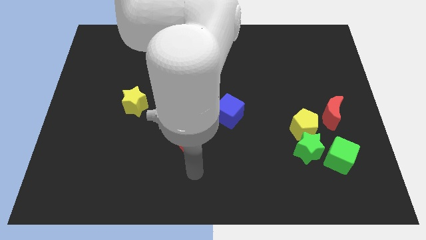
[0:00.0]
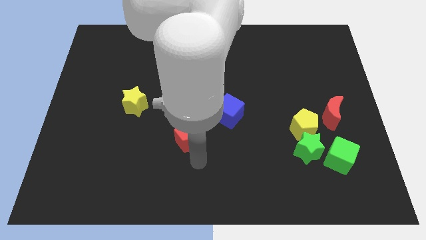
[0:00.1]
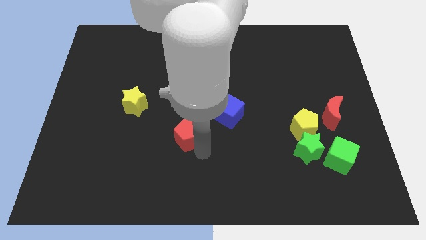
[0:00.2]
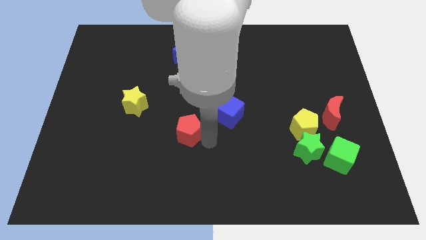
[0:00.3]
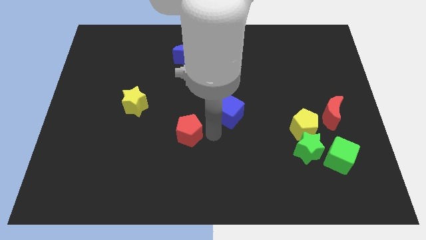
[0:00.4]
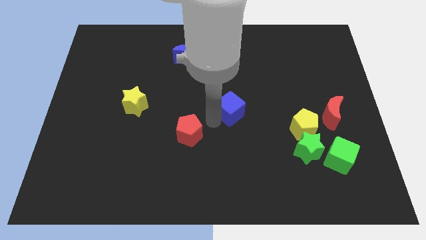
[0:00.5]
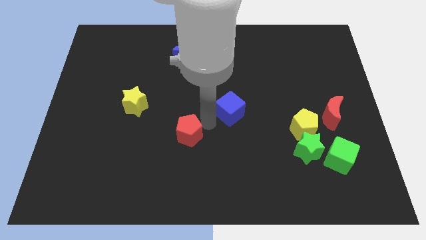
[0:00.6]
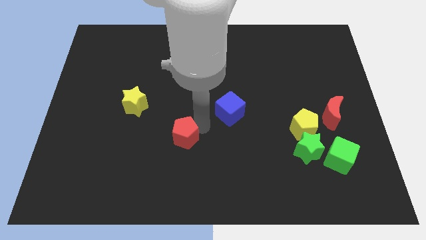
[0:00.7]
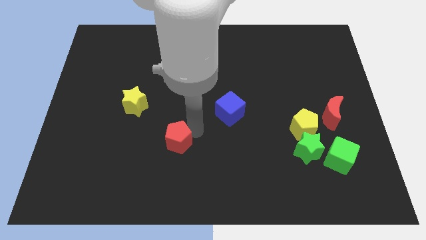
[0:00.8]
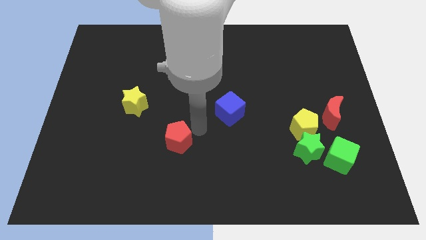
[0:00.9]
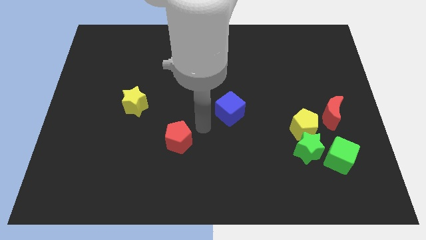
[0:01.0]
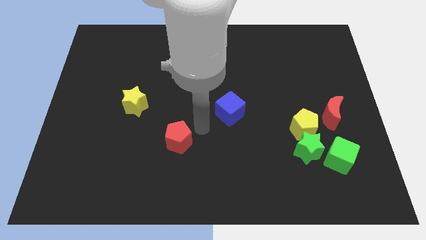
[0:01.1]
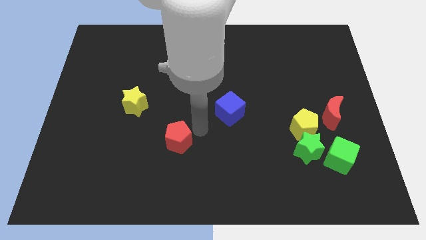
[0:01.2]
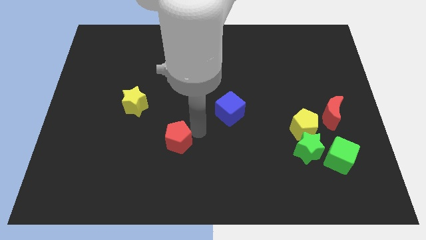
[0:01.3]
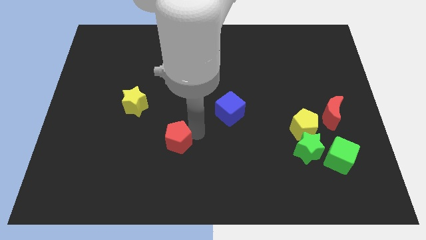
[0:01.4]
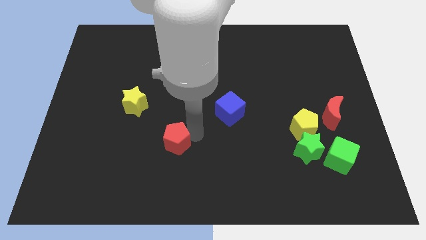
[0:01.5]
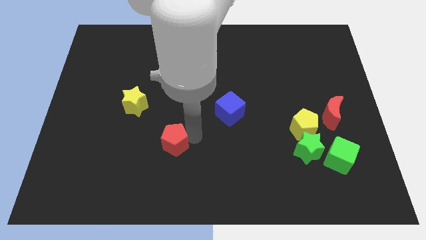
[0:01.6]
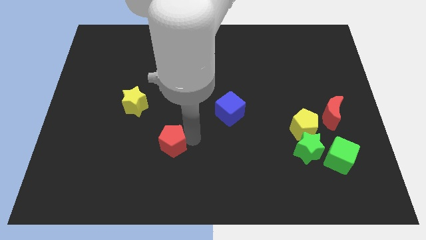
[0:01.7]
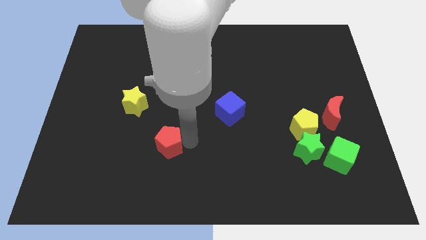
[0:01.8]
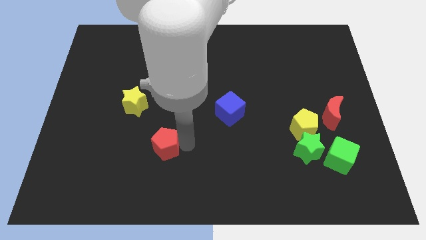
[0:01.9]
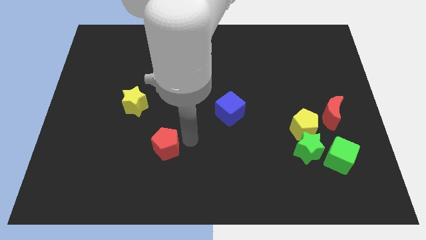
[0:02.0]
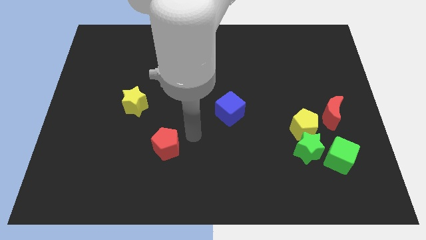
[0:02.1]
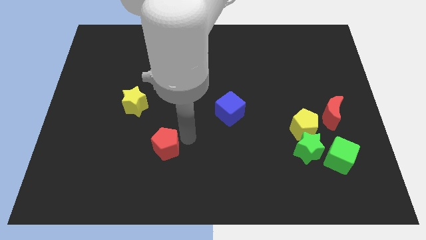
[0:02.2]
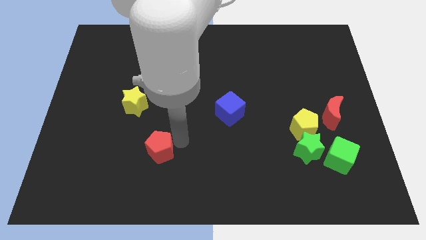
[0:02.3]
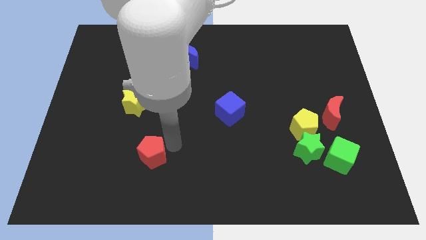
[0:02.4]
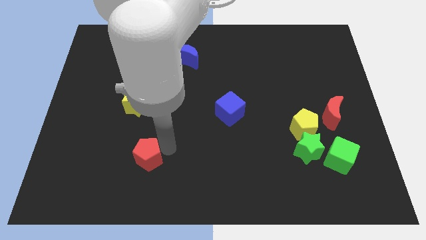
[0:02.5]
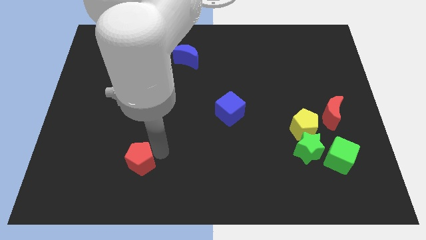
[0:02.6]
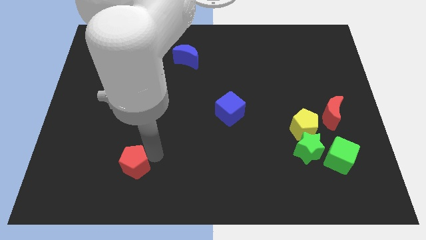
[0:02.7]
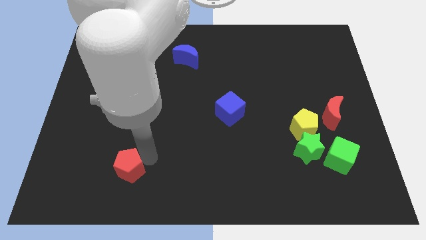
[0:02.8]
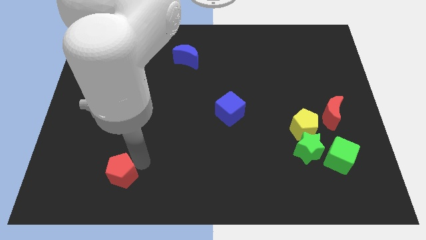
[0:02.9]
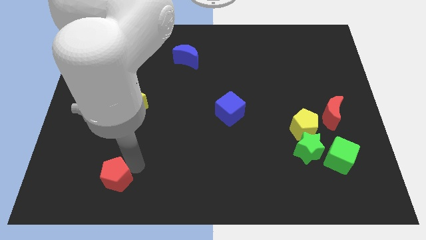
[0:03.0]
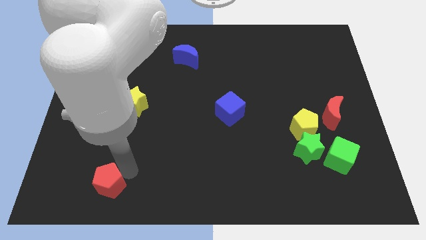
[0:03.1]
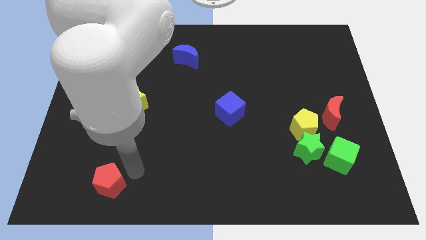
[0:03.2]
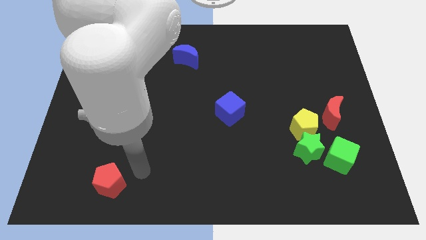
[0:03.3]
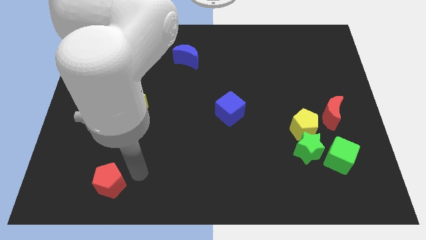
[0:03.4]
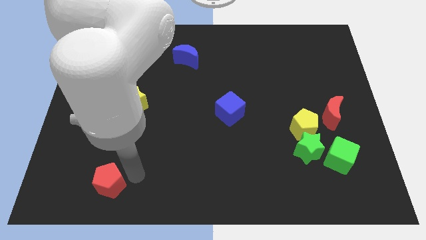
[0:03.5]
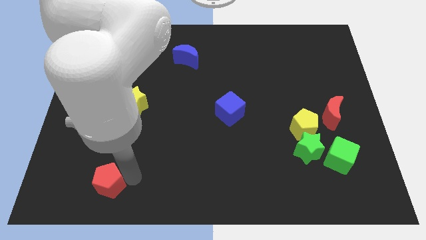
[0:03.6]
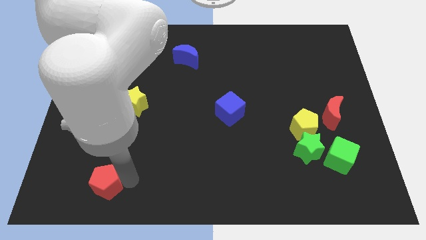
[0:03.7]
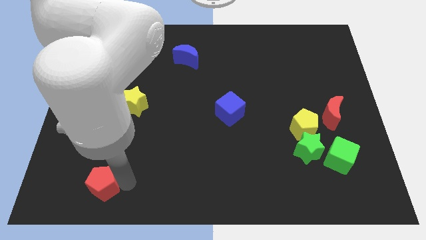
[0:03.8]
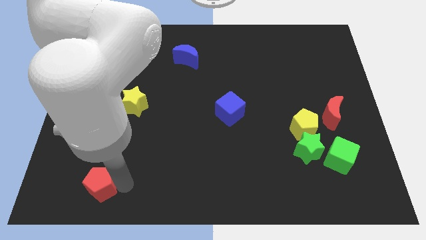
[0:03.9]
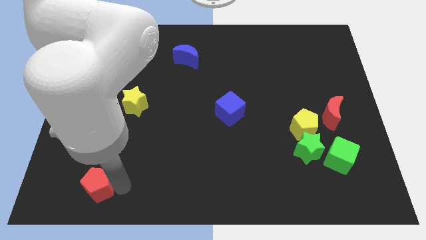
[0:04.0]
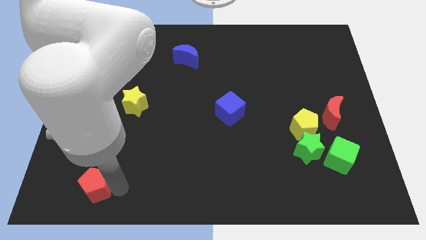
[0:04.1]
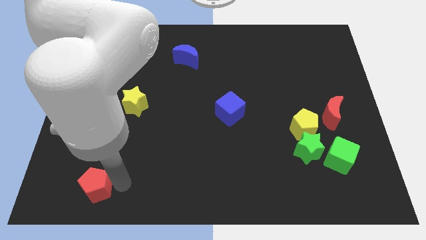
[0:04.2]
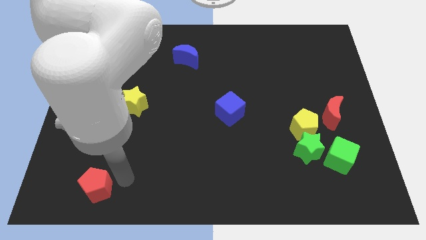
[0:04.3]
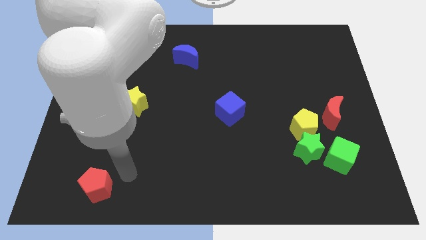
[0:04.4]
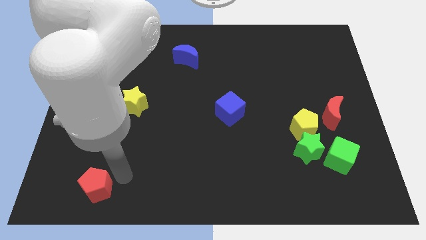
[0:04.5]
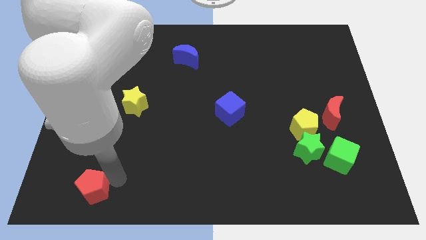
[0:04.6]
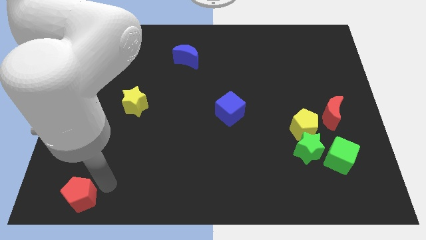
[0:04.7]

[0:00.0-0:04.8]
push the red pentagon to the bottom left corner

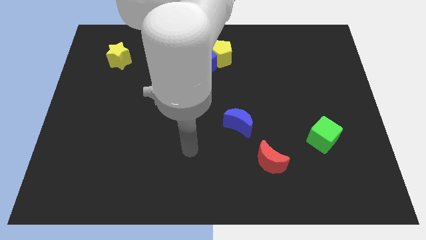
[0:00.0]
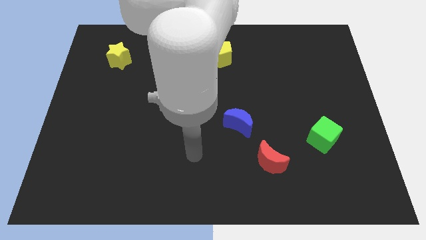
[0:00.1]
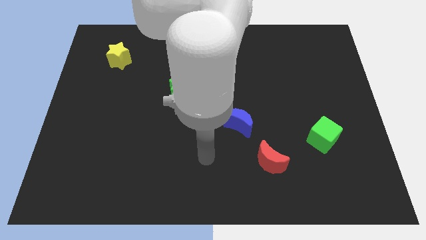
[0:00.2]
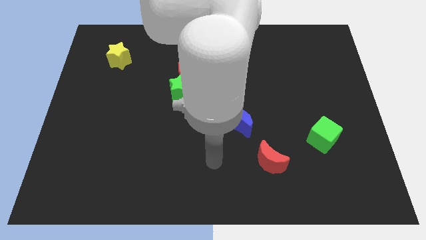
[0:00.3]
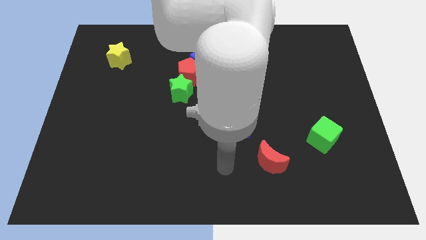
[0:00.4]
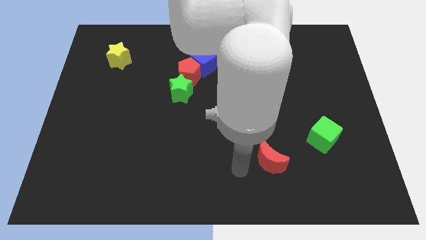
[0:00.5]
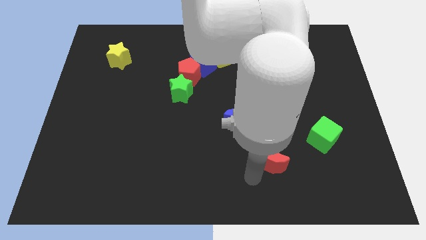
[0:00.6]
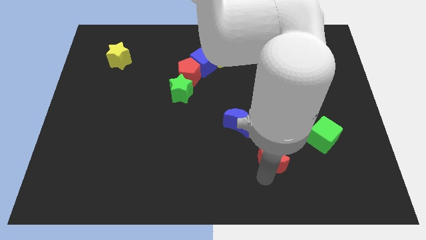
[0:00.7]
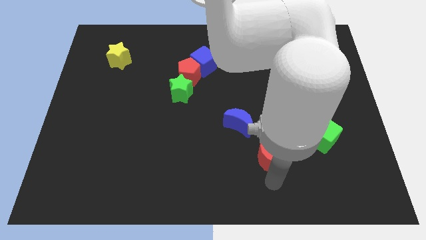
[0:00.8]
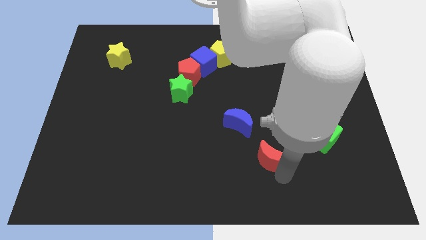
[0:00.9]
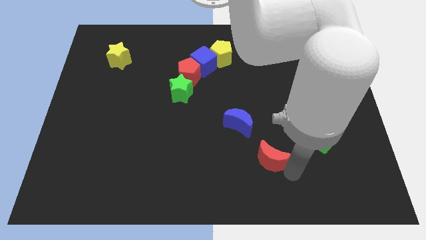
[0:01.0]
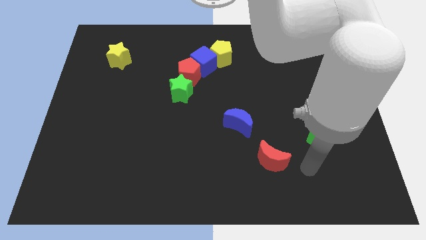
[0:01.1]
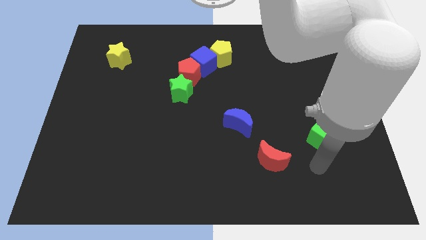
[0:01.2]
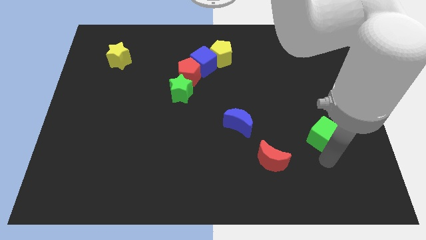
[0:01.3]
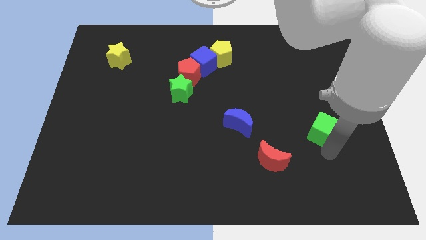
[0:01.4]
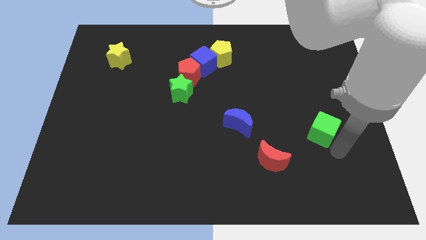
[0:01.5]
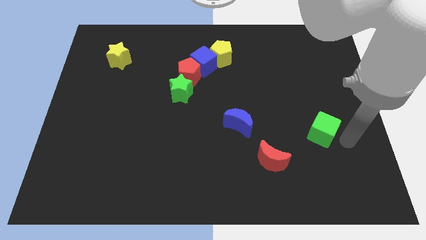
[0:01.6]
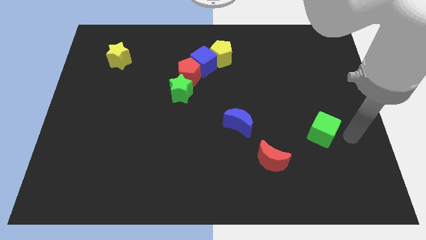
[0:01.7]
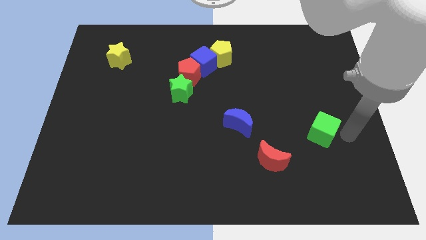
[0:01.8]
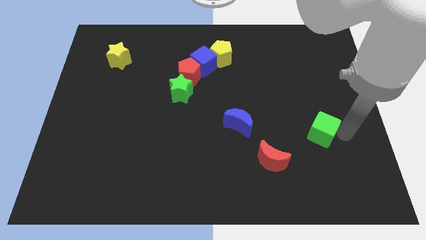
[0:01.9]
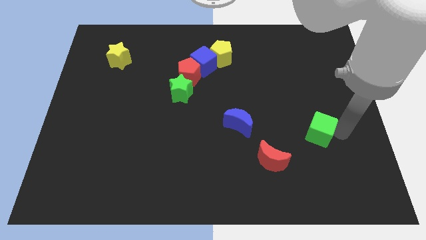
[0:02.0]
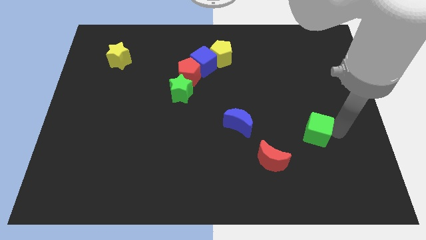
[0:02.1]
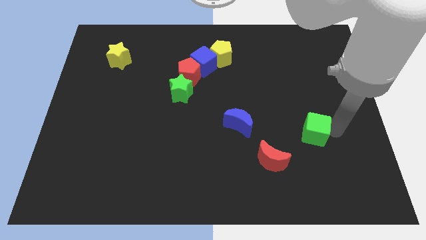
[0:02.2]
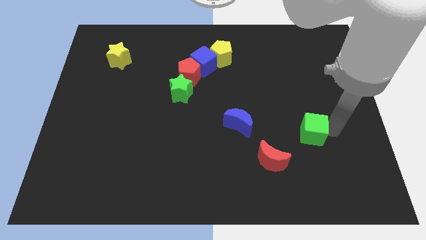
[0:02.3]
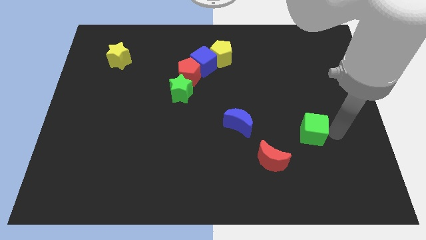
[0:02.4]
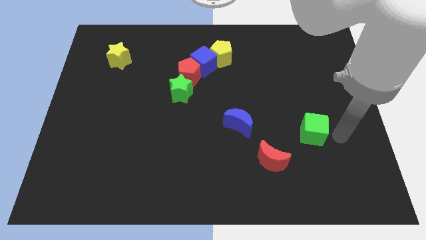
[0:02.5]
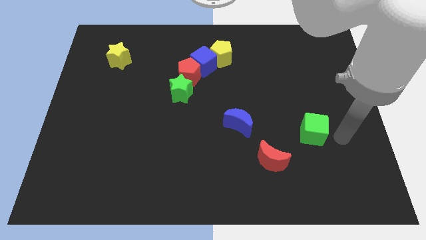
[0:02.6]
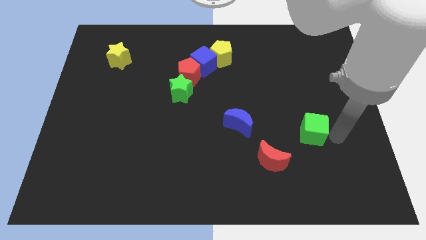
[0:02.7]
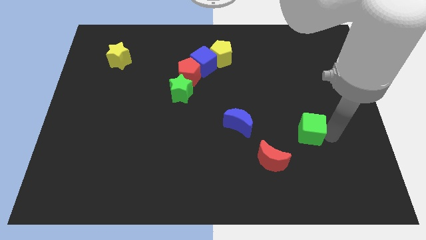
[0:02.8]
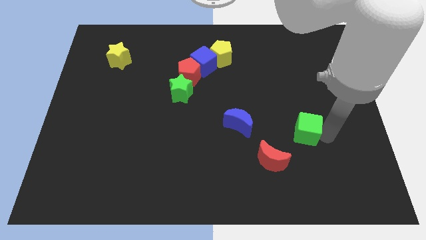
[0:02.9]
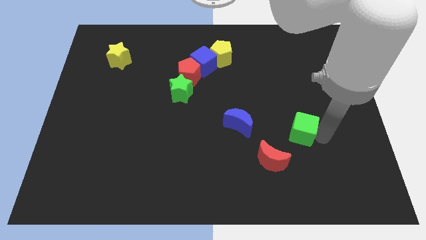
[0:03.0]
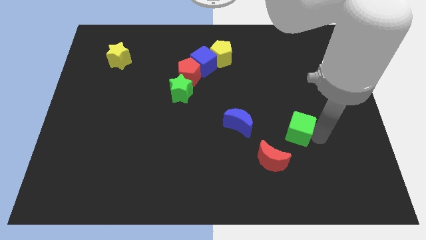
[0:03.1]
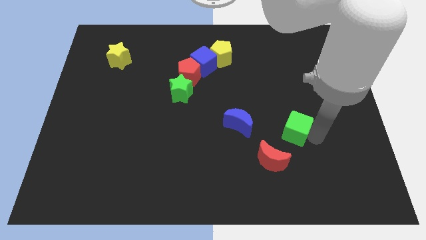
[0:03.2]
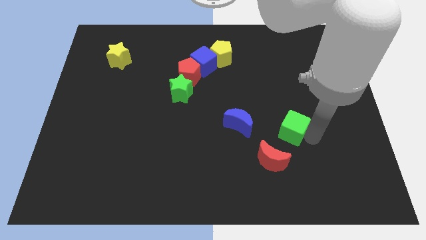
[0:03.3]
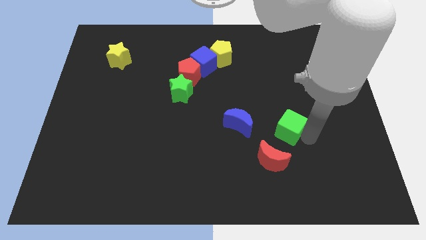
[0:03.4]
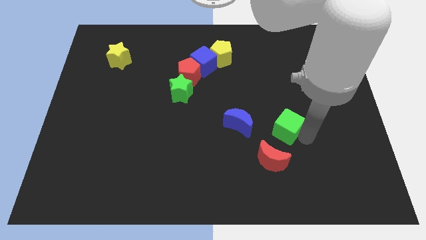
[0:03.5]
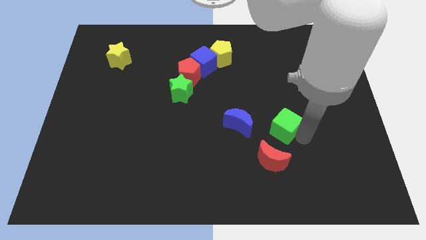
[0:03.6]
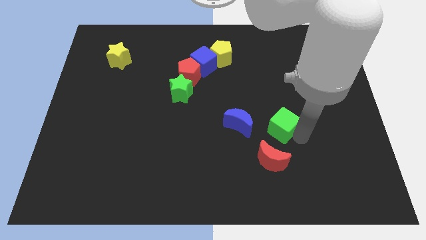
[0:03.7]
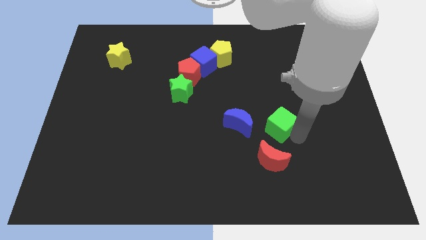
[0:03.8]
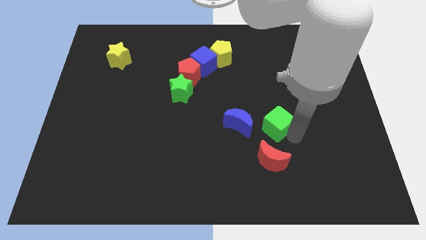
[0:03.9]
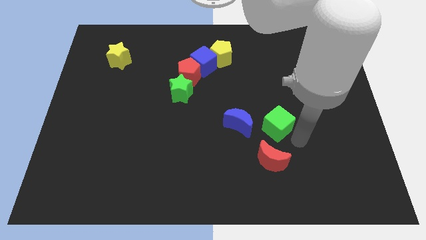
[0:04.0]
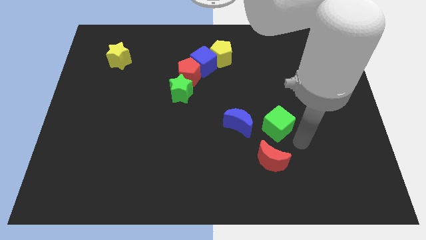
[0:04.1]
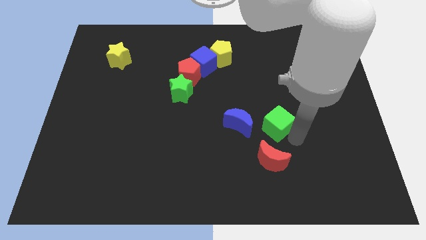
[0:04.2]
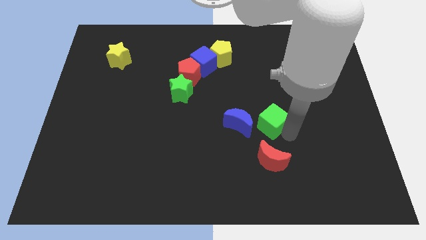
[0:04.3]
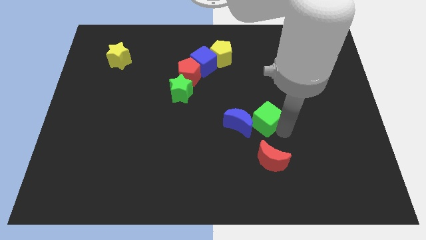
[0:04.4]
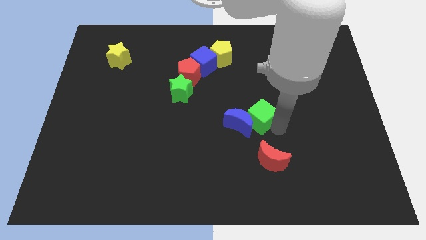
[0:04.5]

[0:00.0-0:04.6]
push the green cube to the center of the board
